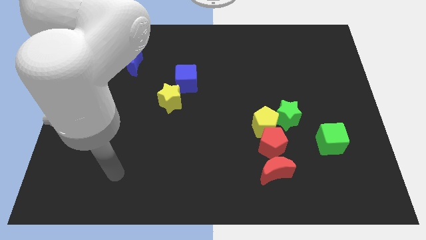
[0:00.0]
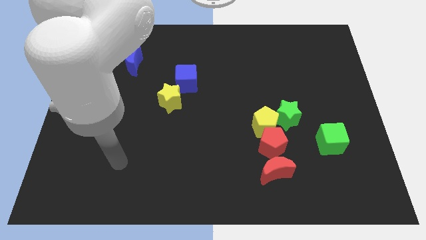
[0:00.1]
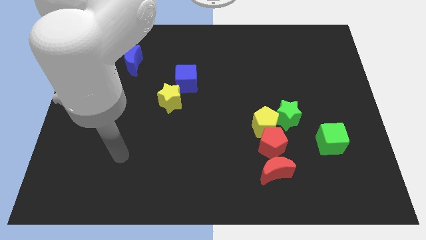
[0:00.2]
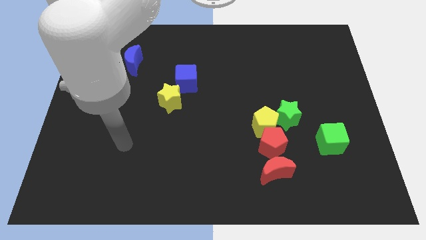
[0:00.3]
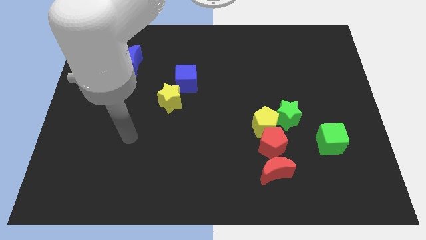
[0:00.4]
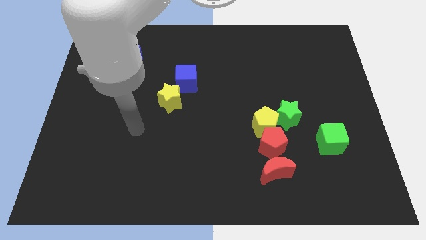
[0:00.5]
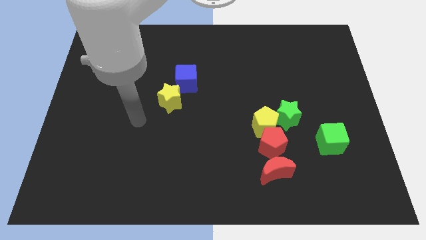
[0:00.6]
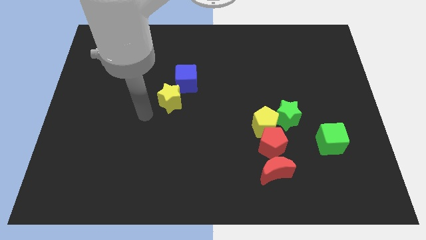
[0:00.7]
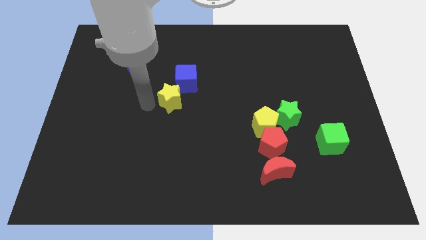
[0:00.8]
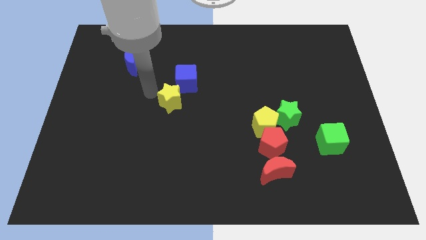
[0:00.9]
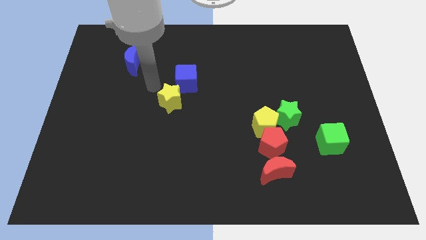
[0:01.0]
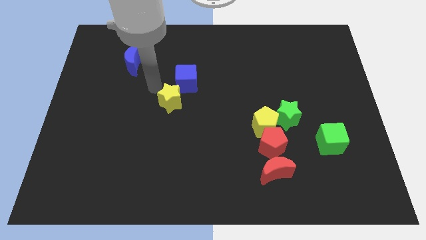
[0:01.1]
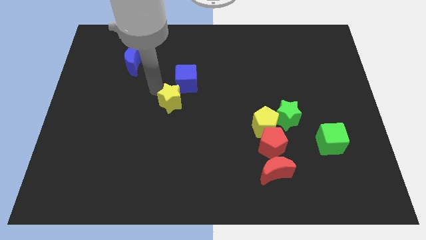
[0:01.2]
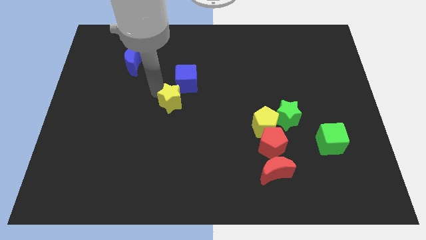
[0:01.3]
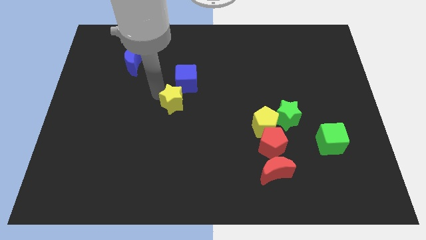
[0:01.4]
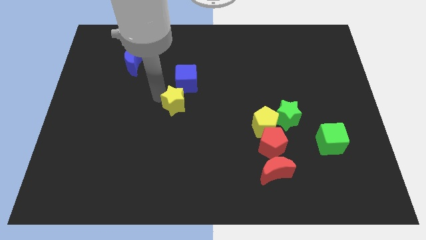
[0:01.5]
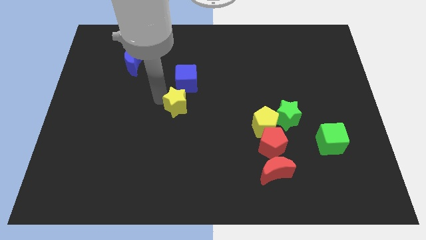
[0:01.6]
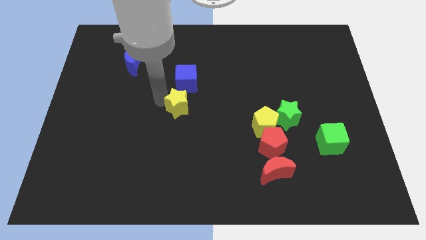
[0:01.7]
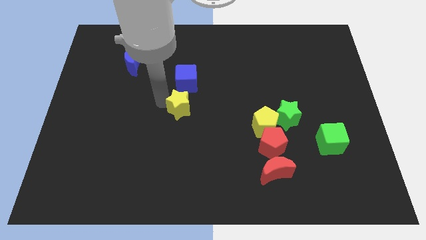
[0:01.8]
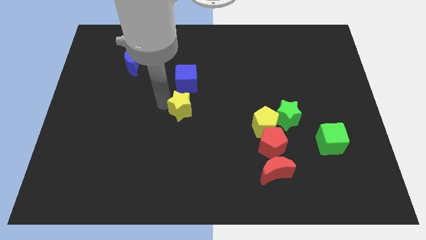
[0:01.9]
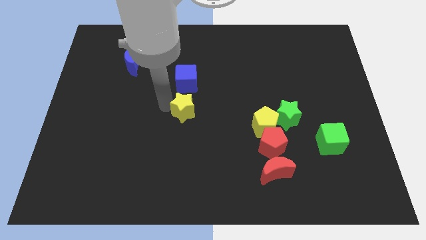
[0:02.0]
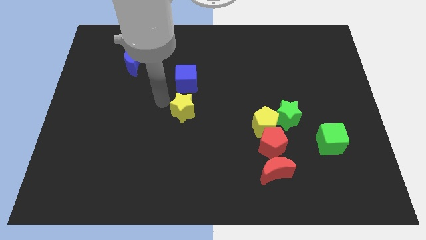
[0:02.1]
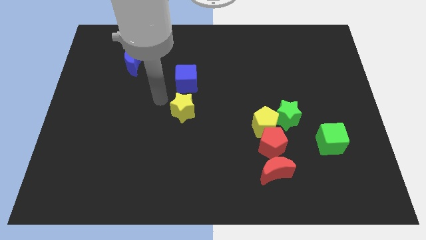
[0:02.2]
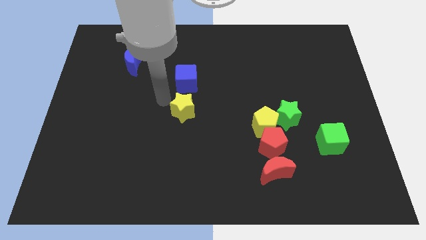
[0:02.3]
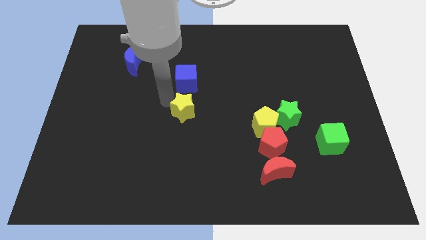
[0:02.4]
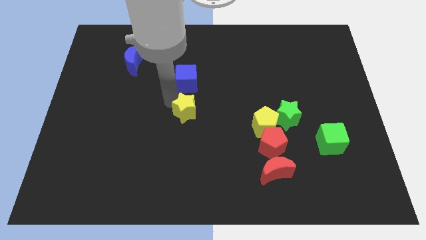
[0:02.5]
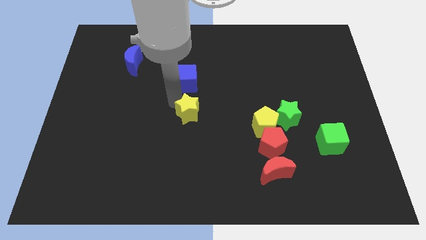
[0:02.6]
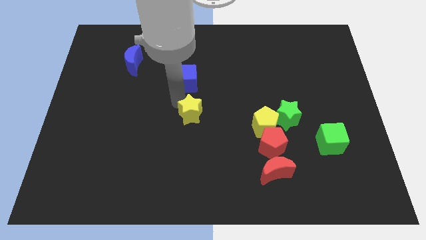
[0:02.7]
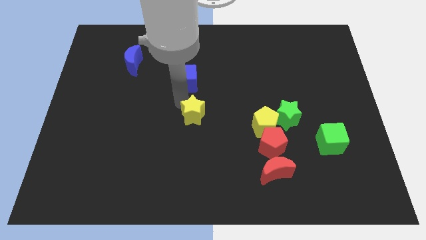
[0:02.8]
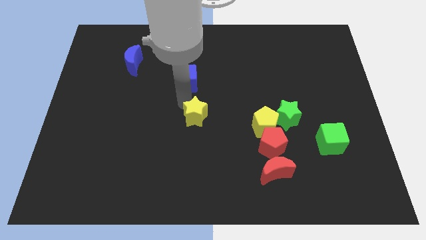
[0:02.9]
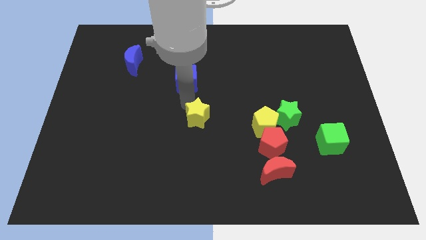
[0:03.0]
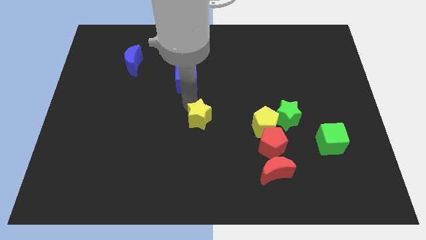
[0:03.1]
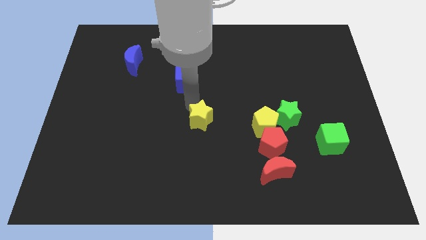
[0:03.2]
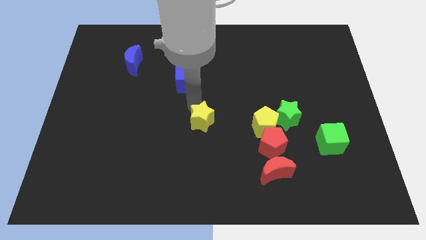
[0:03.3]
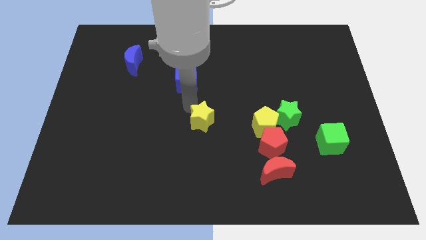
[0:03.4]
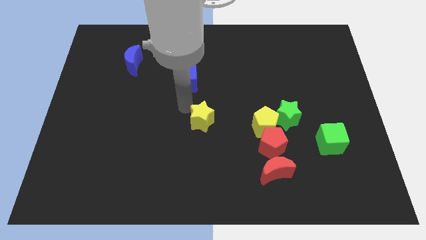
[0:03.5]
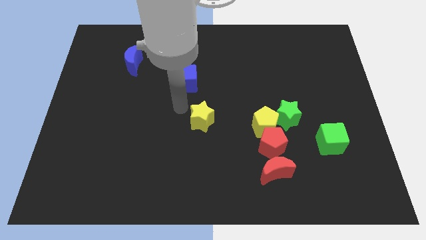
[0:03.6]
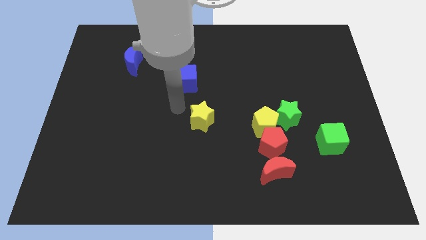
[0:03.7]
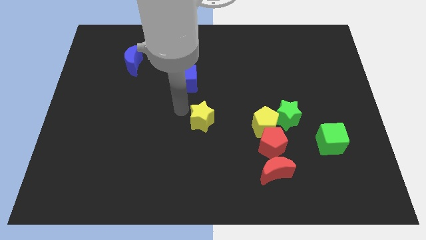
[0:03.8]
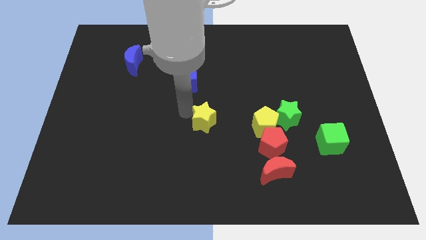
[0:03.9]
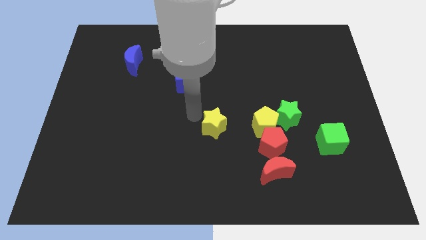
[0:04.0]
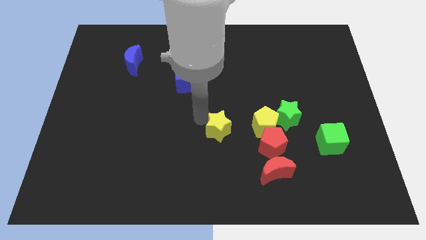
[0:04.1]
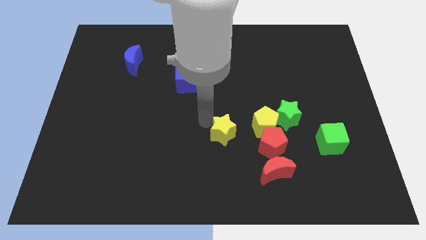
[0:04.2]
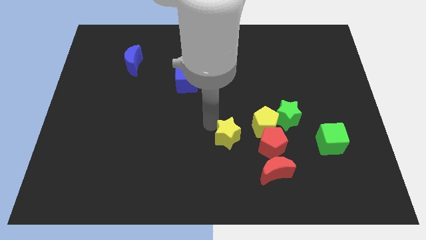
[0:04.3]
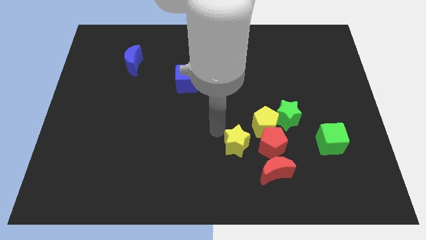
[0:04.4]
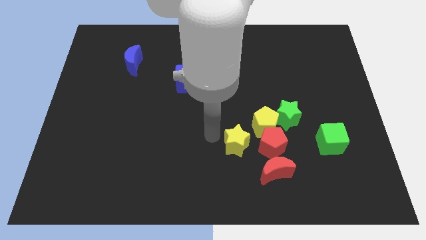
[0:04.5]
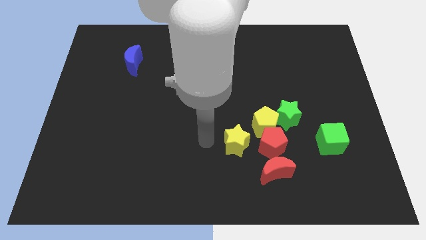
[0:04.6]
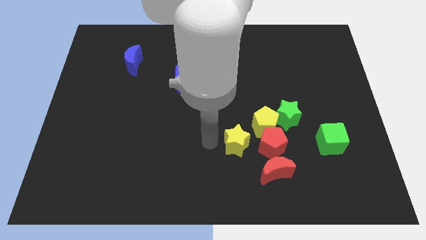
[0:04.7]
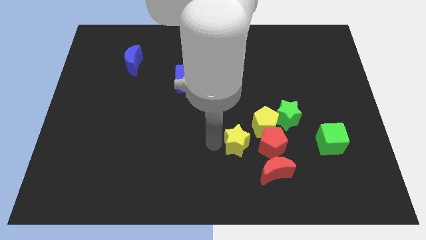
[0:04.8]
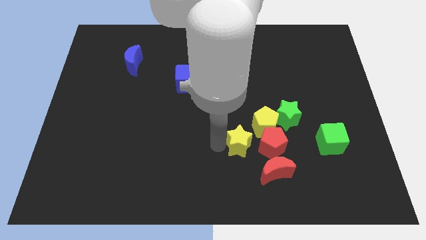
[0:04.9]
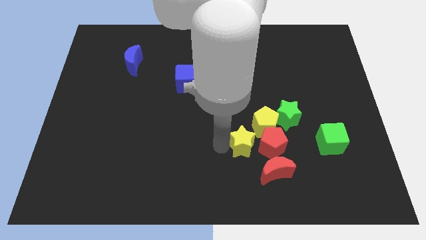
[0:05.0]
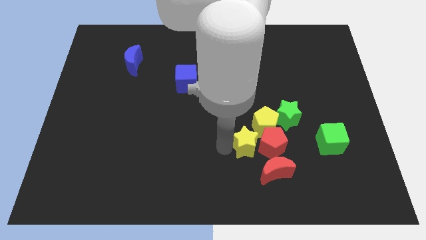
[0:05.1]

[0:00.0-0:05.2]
slide the yellow star towards the red pentagon

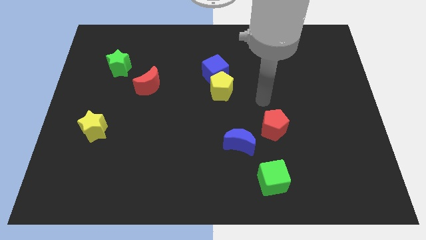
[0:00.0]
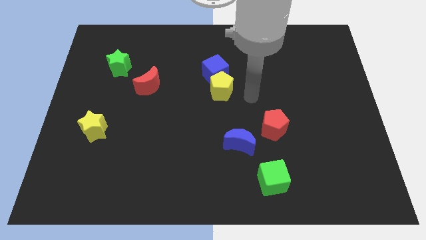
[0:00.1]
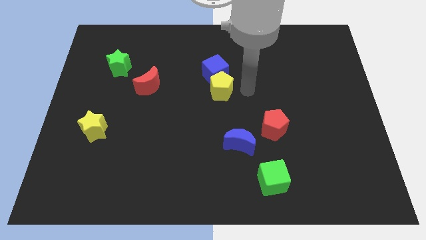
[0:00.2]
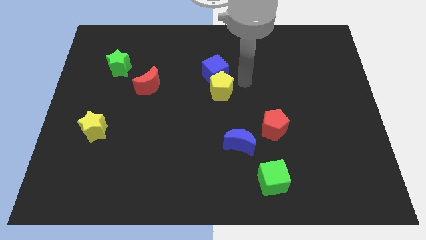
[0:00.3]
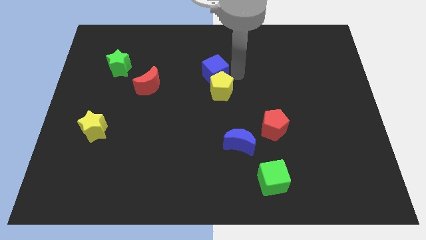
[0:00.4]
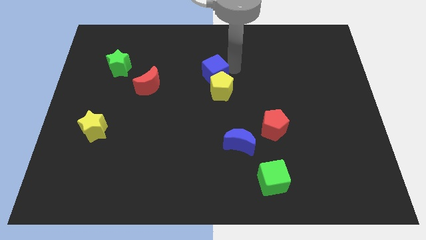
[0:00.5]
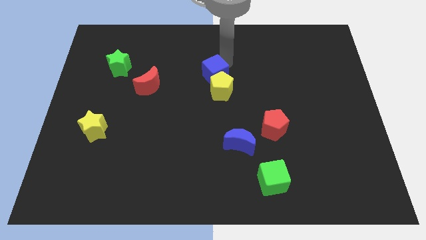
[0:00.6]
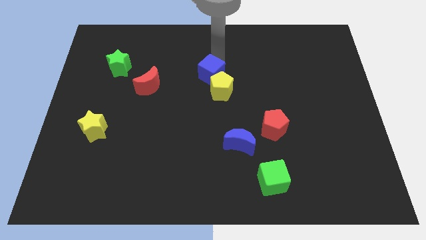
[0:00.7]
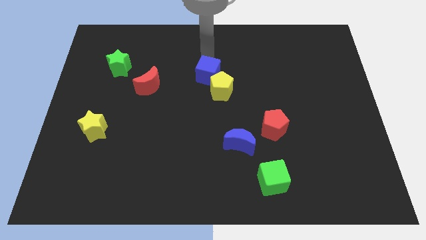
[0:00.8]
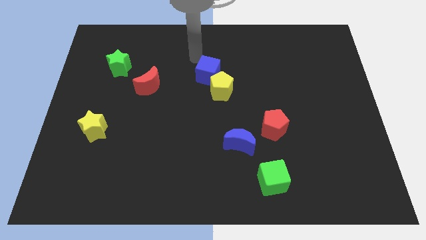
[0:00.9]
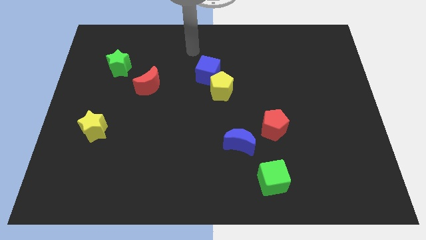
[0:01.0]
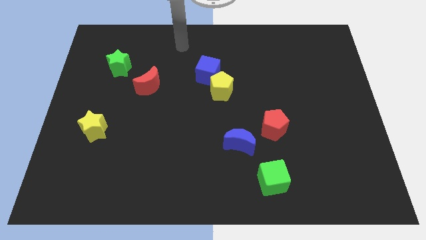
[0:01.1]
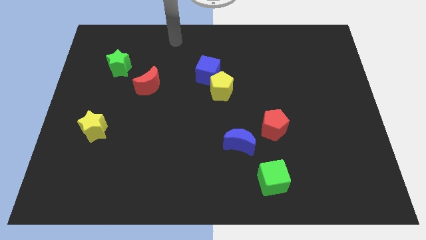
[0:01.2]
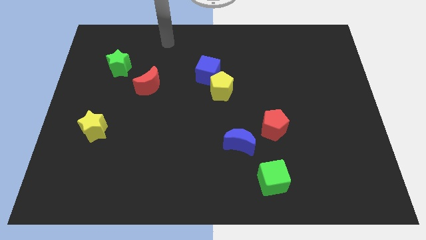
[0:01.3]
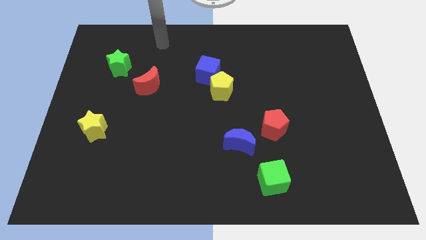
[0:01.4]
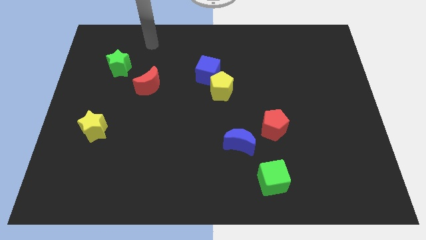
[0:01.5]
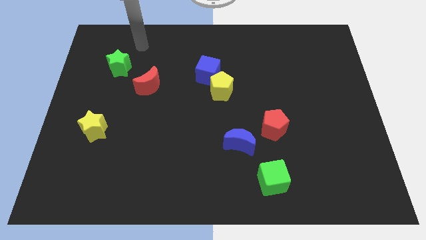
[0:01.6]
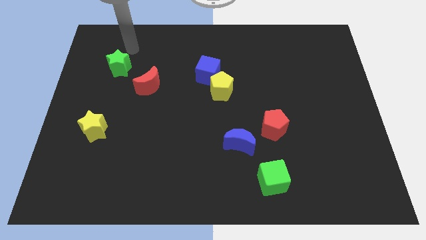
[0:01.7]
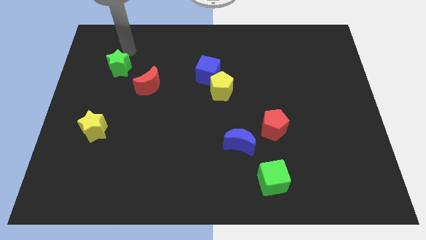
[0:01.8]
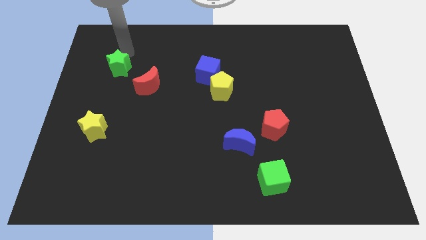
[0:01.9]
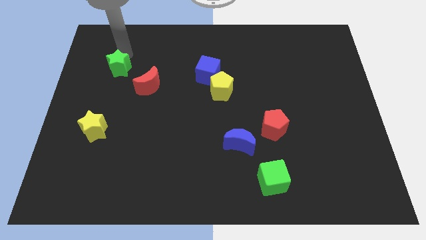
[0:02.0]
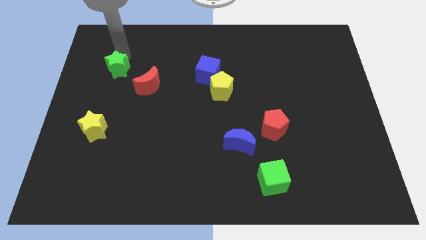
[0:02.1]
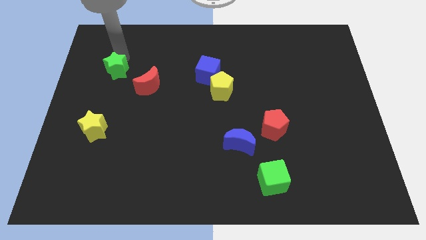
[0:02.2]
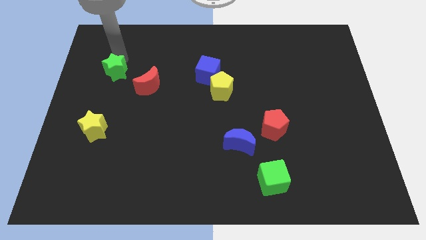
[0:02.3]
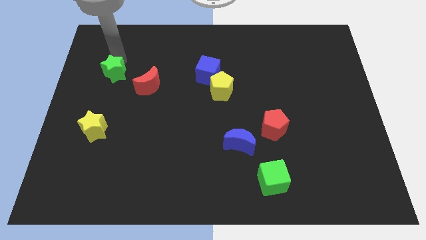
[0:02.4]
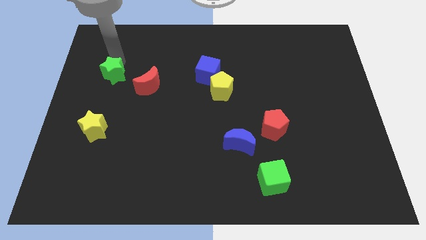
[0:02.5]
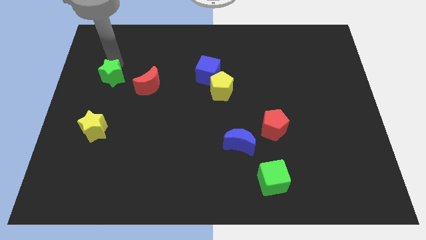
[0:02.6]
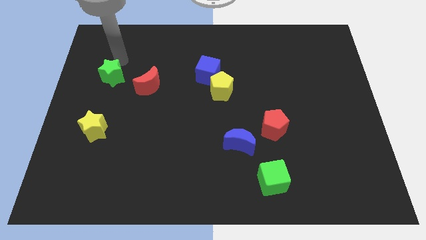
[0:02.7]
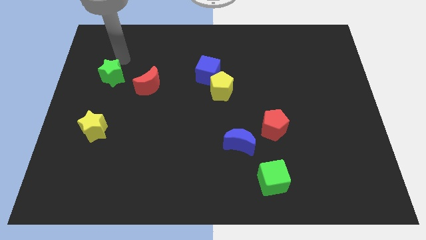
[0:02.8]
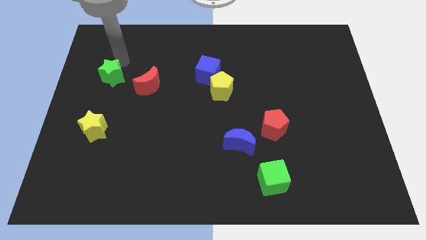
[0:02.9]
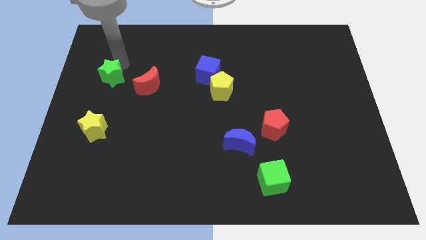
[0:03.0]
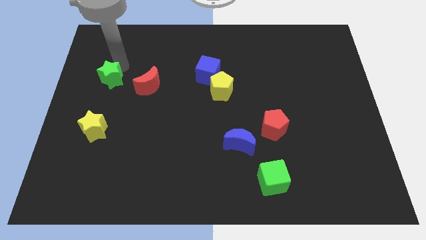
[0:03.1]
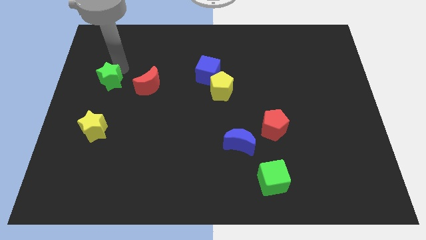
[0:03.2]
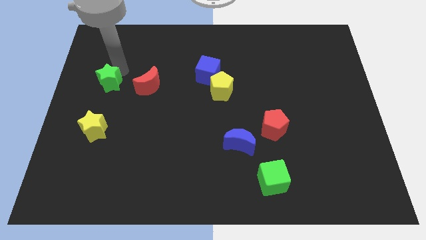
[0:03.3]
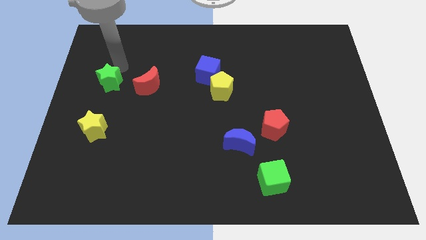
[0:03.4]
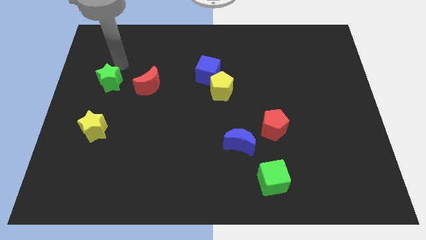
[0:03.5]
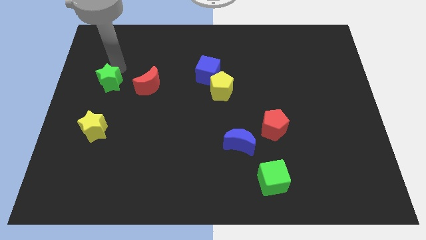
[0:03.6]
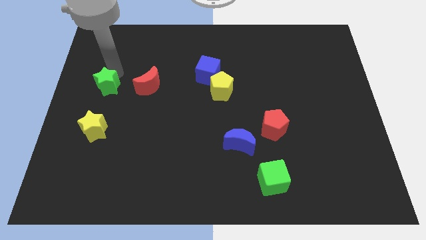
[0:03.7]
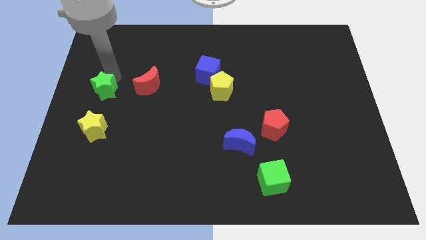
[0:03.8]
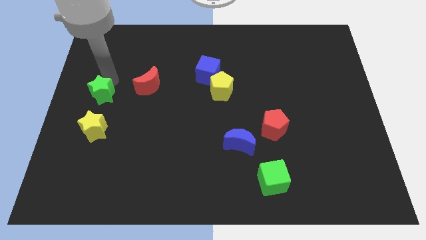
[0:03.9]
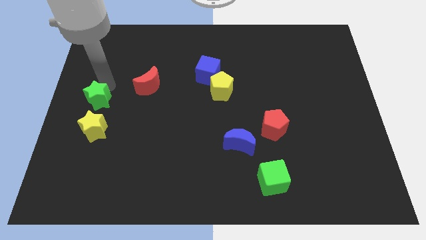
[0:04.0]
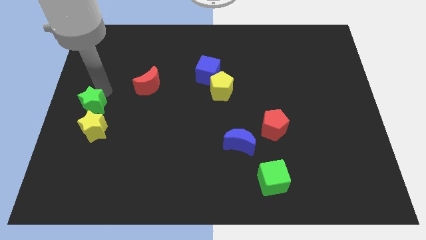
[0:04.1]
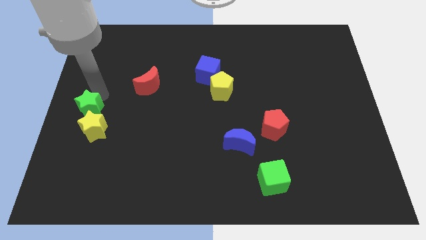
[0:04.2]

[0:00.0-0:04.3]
move the green star close to the yellow star
